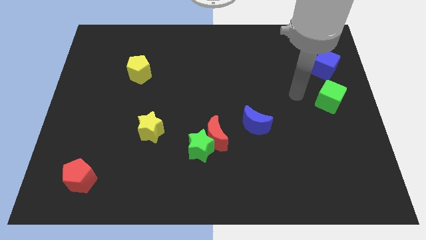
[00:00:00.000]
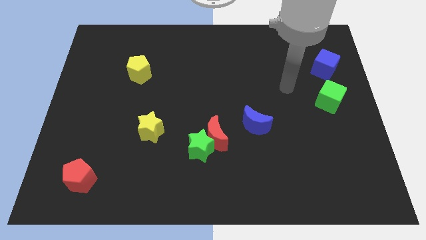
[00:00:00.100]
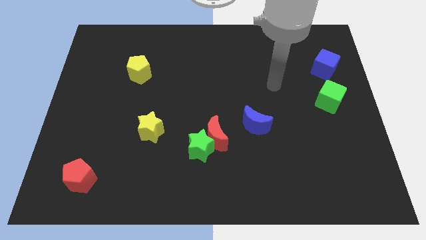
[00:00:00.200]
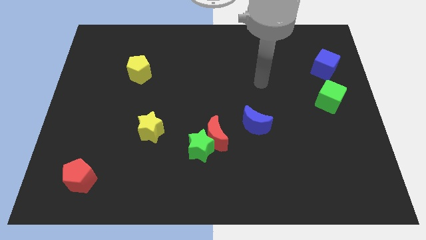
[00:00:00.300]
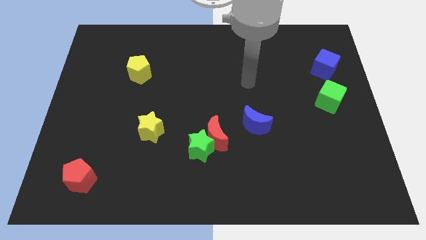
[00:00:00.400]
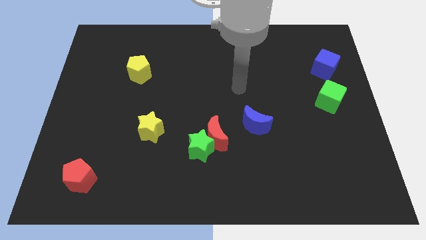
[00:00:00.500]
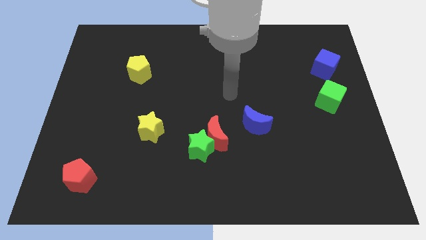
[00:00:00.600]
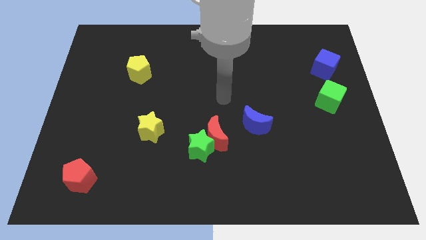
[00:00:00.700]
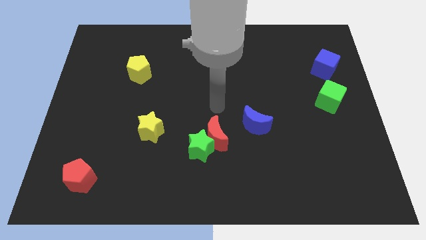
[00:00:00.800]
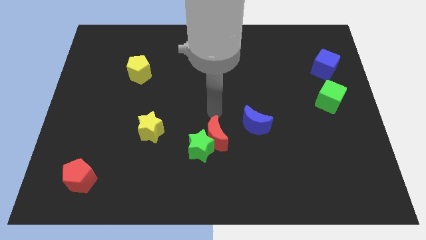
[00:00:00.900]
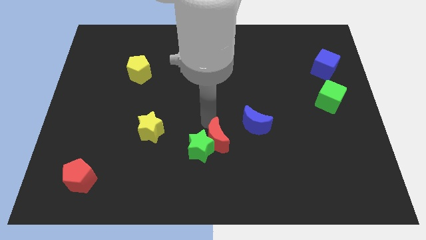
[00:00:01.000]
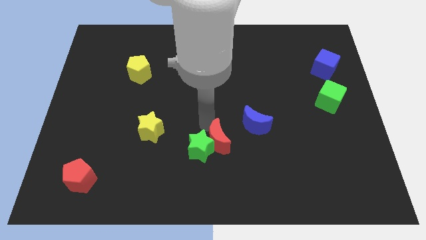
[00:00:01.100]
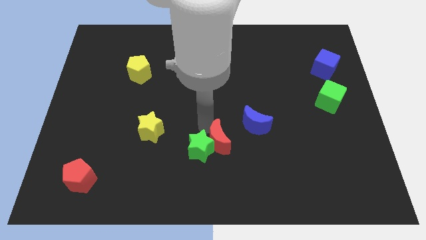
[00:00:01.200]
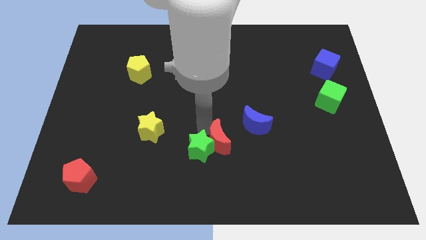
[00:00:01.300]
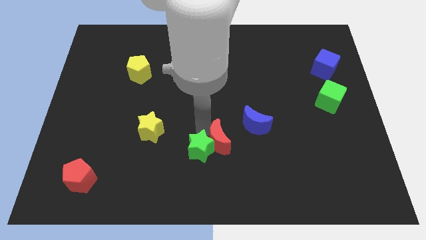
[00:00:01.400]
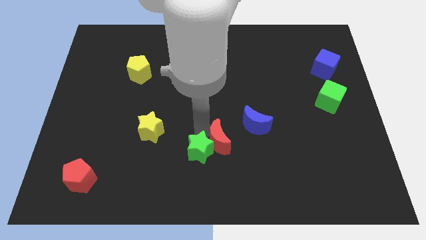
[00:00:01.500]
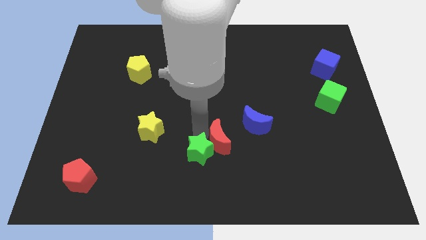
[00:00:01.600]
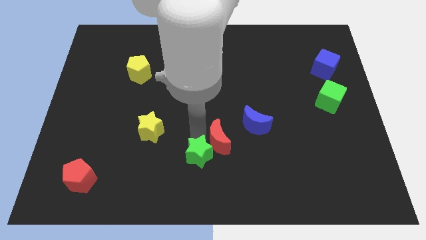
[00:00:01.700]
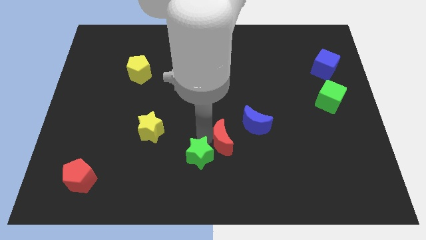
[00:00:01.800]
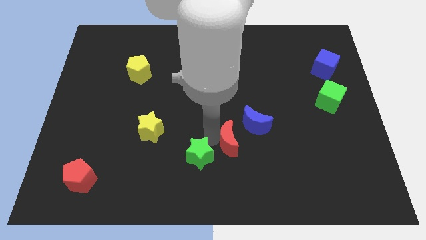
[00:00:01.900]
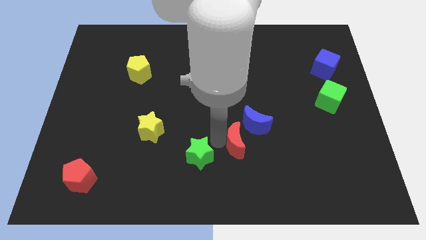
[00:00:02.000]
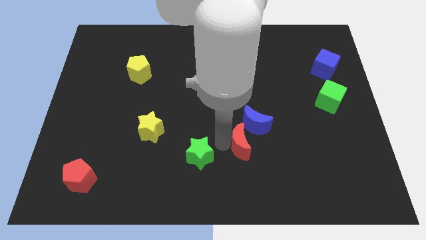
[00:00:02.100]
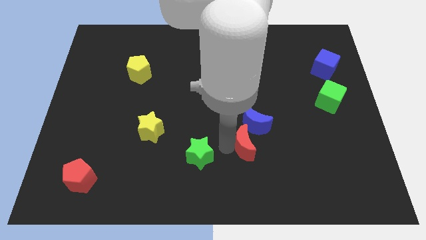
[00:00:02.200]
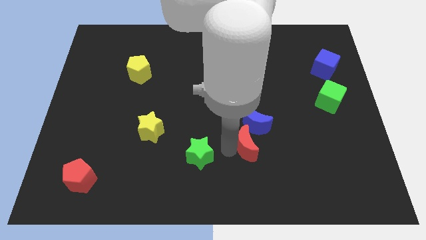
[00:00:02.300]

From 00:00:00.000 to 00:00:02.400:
pull the green star apart from the red moon

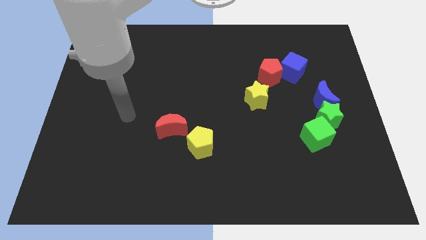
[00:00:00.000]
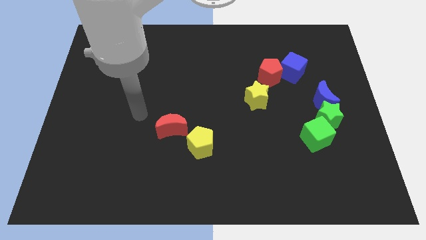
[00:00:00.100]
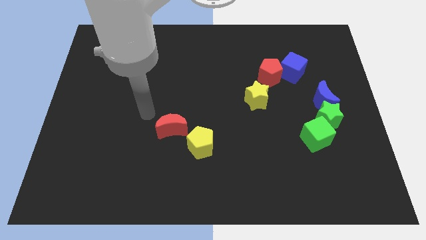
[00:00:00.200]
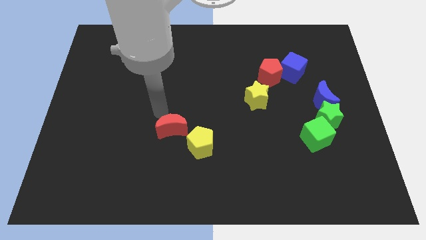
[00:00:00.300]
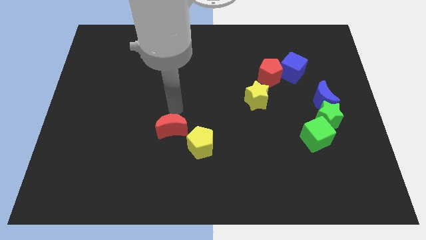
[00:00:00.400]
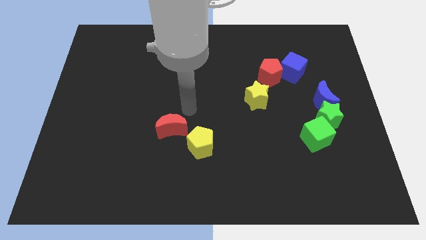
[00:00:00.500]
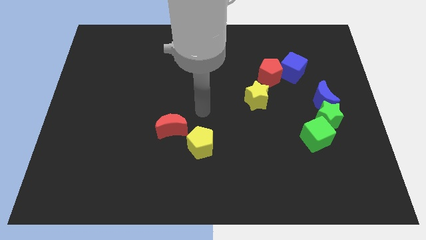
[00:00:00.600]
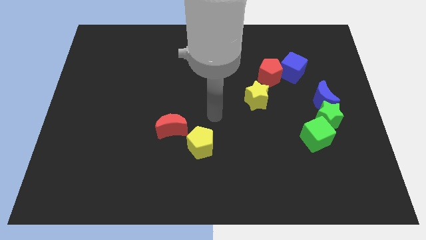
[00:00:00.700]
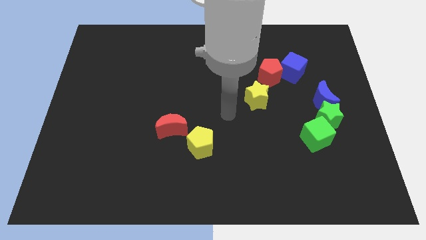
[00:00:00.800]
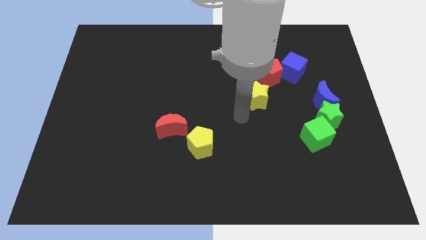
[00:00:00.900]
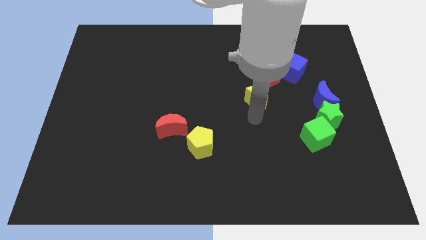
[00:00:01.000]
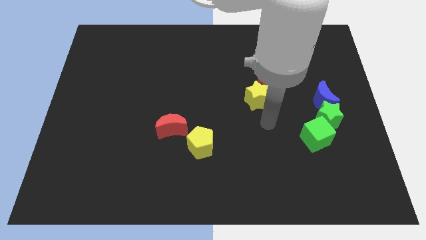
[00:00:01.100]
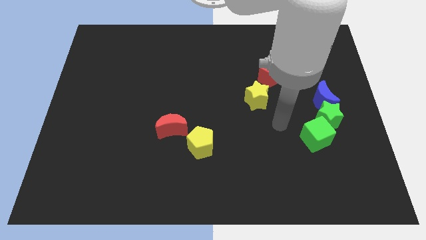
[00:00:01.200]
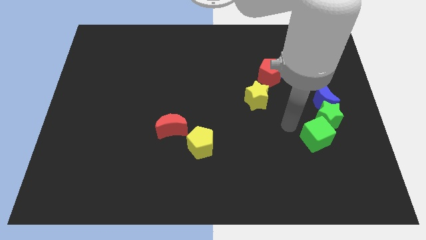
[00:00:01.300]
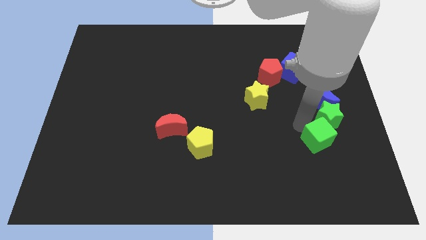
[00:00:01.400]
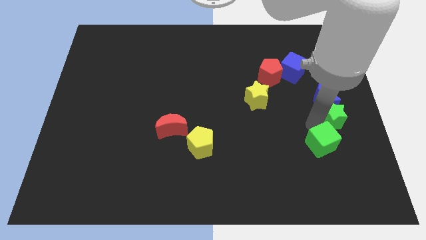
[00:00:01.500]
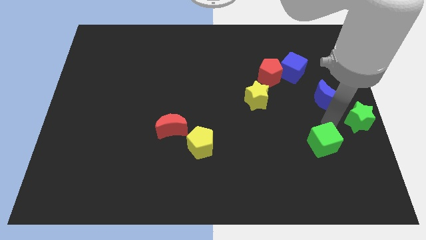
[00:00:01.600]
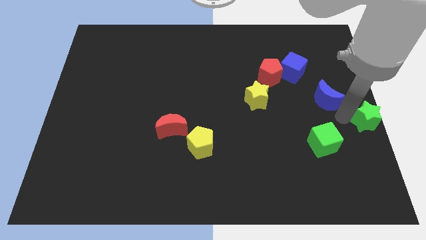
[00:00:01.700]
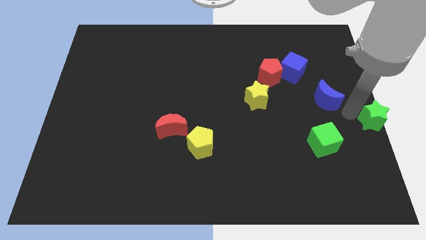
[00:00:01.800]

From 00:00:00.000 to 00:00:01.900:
move the blue moon away from the green star

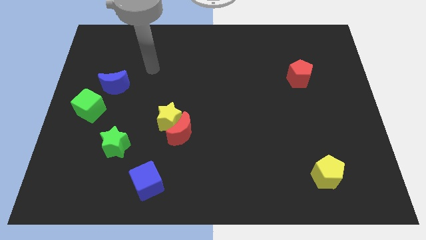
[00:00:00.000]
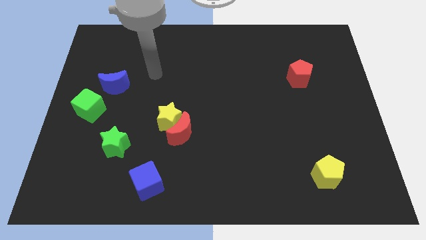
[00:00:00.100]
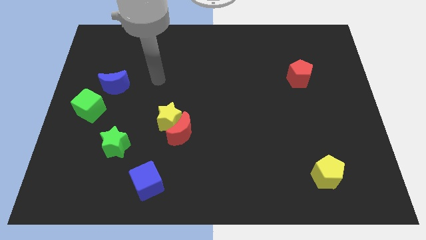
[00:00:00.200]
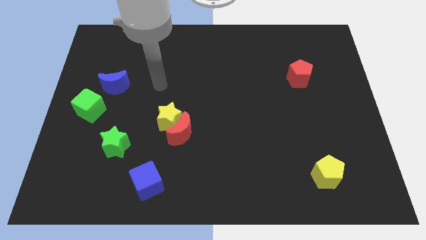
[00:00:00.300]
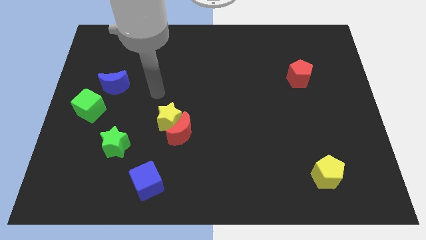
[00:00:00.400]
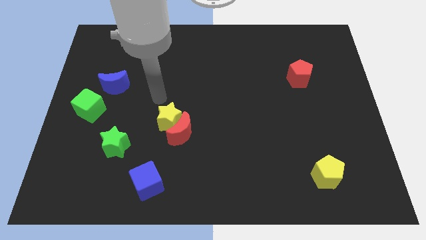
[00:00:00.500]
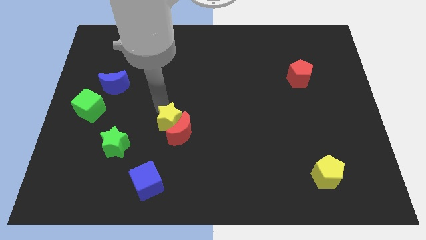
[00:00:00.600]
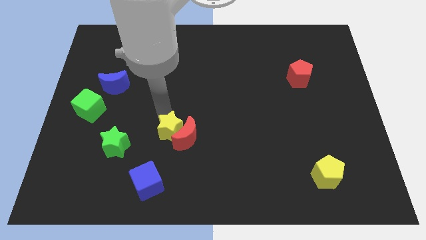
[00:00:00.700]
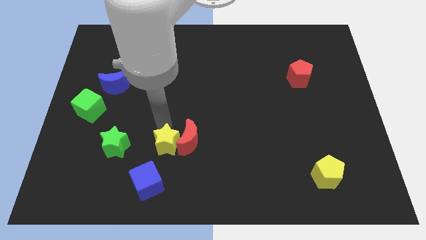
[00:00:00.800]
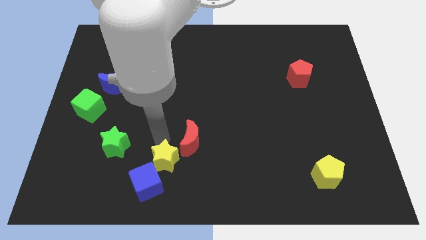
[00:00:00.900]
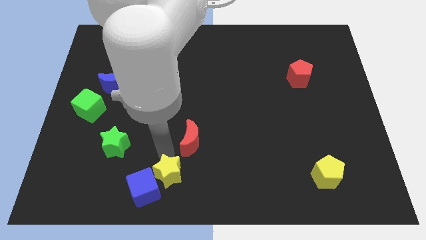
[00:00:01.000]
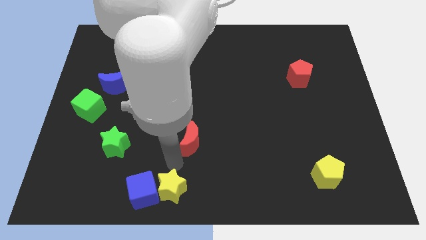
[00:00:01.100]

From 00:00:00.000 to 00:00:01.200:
pull the red moon apart from the yellow star

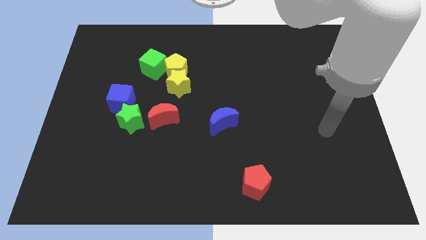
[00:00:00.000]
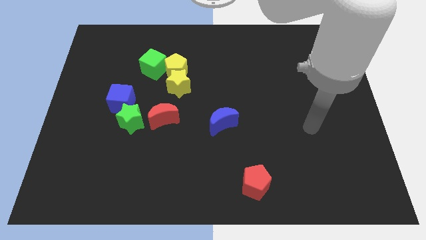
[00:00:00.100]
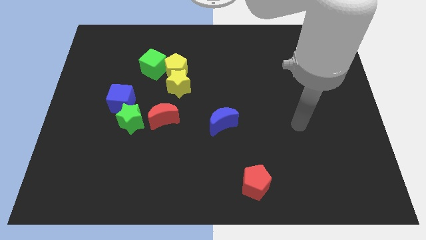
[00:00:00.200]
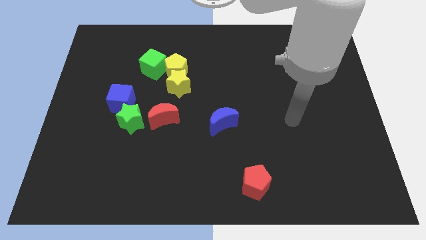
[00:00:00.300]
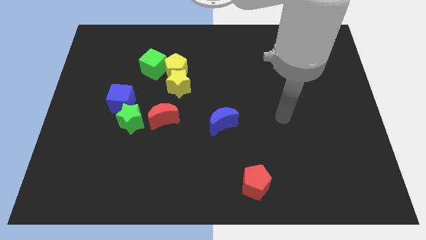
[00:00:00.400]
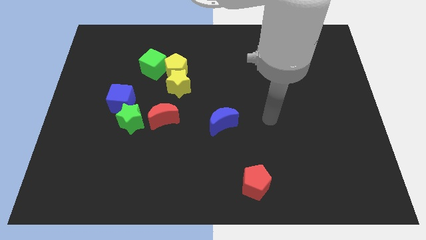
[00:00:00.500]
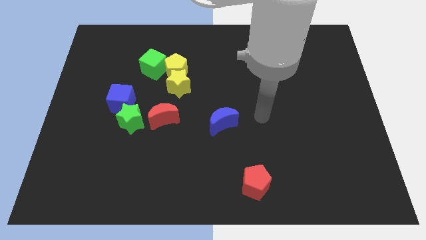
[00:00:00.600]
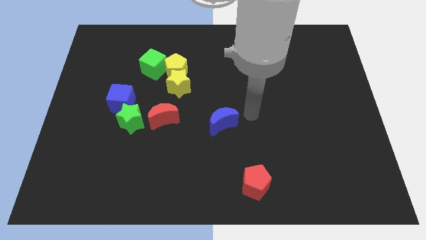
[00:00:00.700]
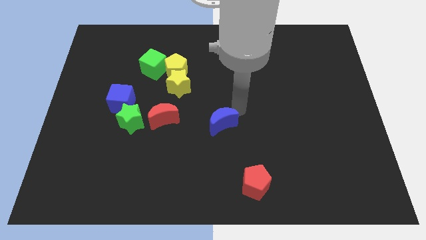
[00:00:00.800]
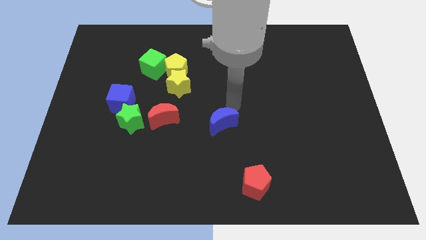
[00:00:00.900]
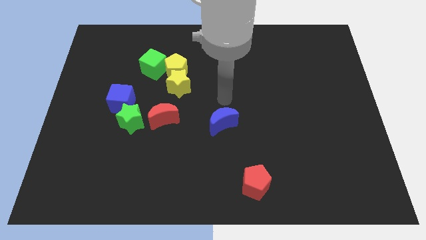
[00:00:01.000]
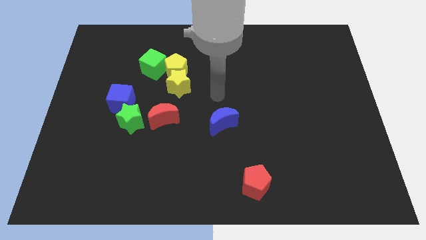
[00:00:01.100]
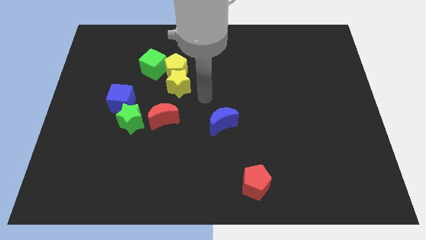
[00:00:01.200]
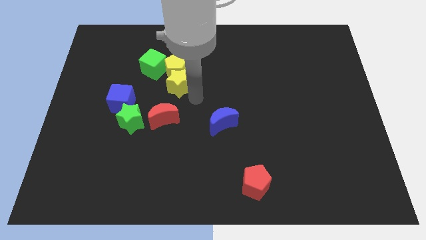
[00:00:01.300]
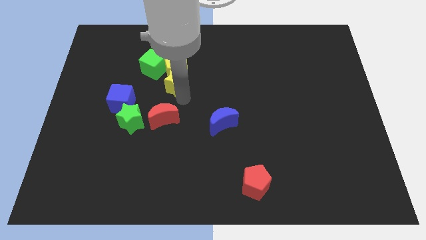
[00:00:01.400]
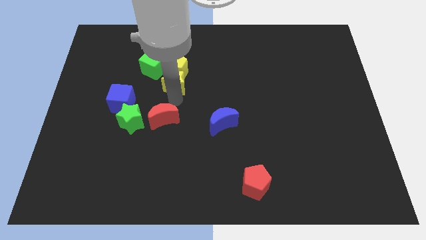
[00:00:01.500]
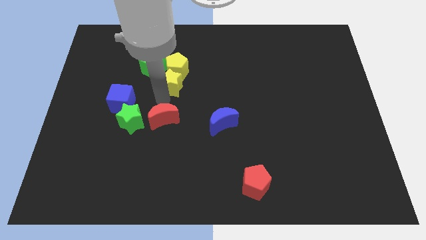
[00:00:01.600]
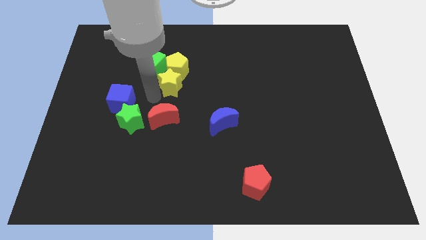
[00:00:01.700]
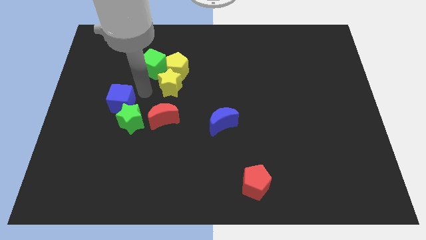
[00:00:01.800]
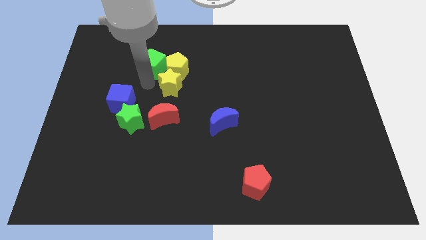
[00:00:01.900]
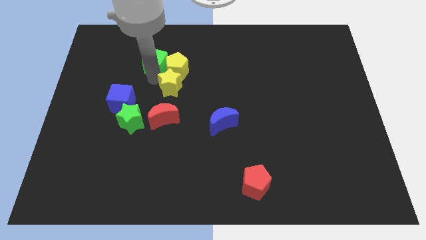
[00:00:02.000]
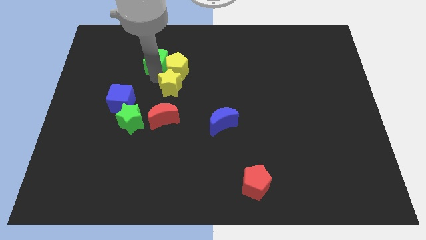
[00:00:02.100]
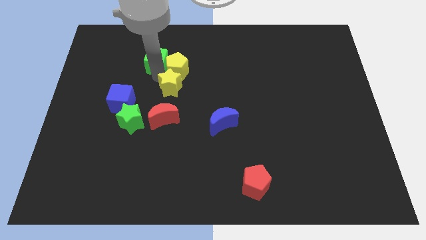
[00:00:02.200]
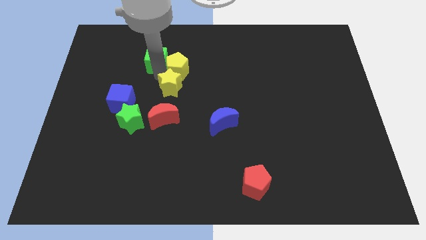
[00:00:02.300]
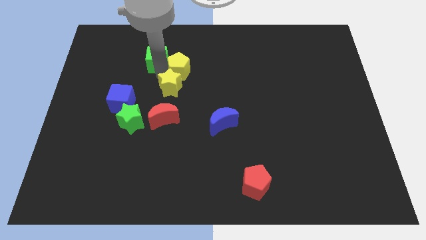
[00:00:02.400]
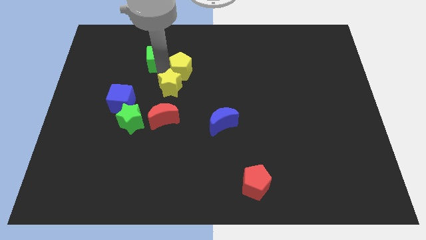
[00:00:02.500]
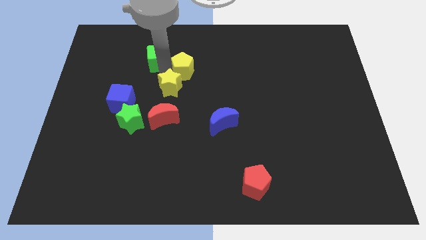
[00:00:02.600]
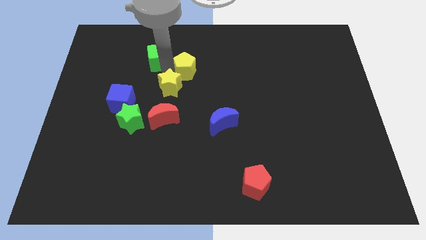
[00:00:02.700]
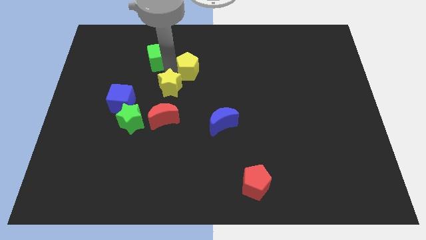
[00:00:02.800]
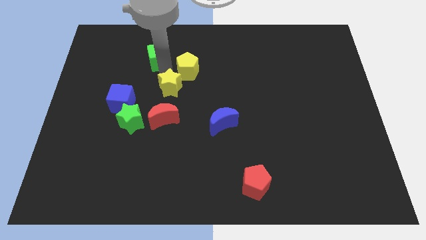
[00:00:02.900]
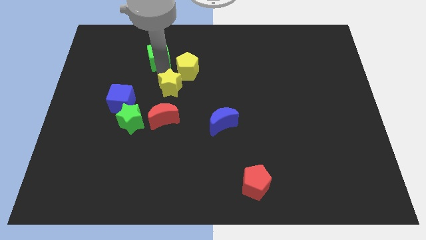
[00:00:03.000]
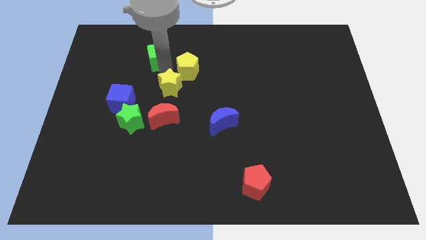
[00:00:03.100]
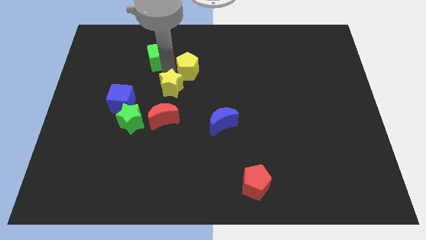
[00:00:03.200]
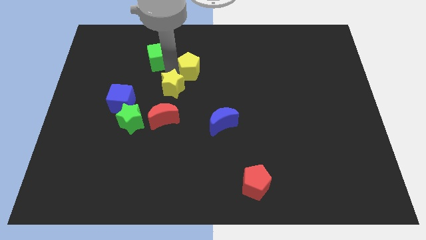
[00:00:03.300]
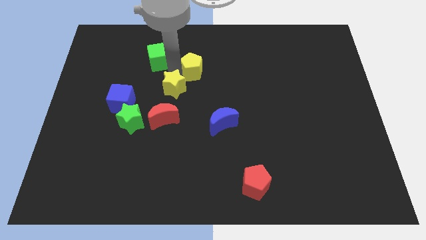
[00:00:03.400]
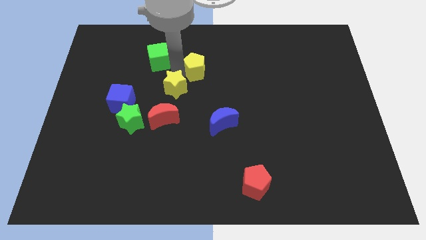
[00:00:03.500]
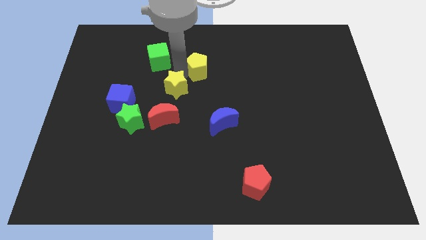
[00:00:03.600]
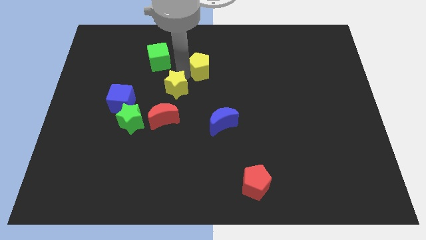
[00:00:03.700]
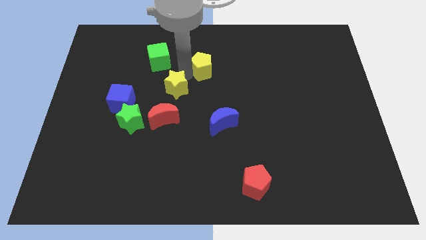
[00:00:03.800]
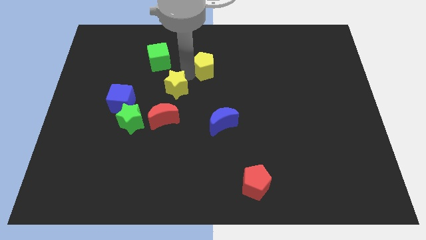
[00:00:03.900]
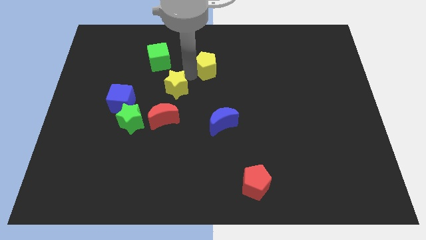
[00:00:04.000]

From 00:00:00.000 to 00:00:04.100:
move the yellow pentagon away from the yellow star and green cube
